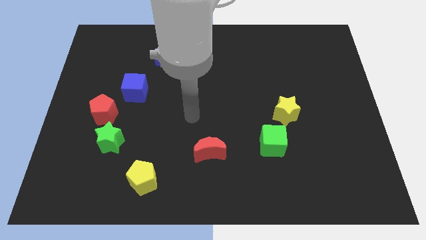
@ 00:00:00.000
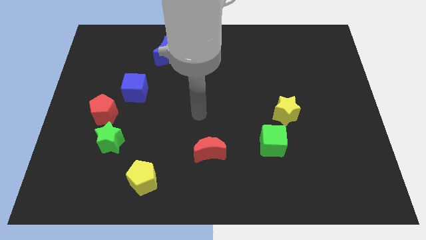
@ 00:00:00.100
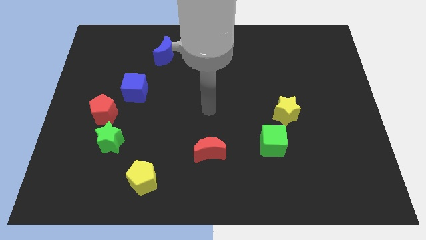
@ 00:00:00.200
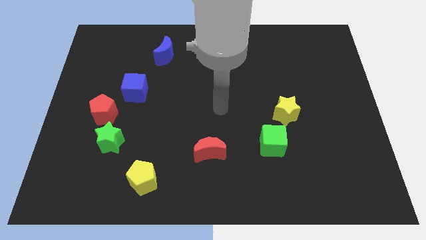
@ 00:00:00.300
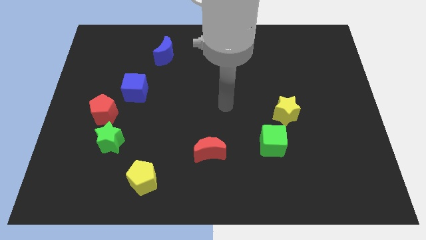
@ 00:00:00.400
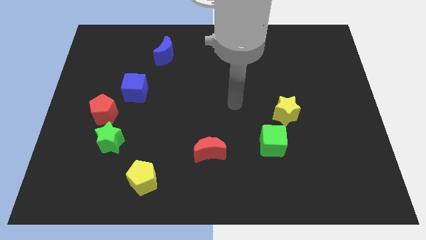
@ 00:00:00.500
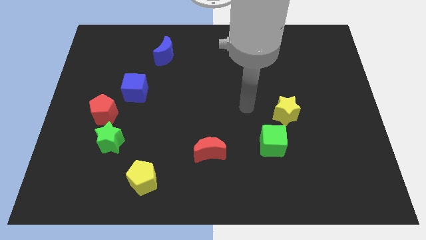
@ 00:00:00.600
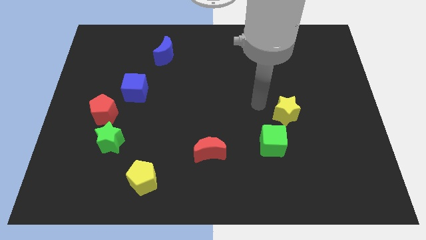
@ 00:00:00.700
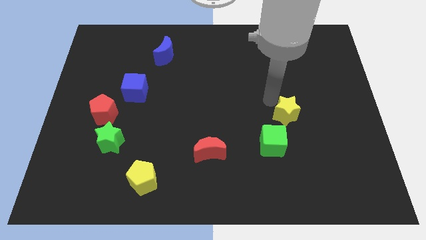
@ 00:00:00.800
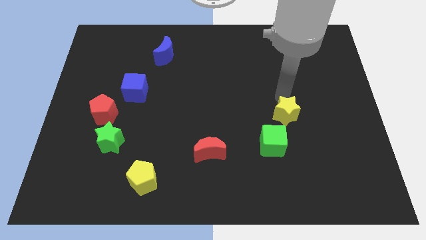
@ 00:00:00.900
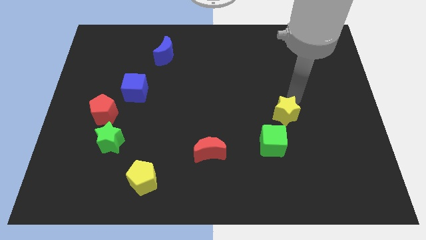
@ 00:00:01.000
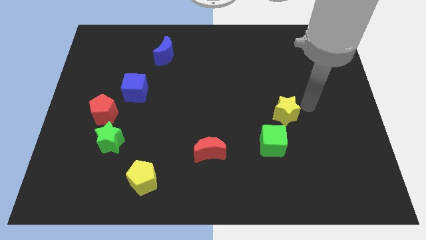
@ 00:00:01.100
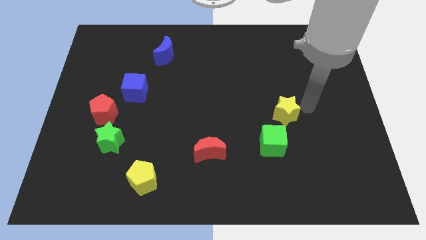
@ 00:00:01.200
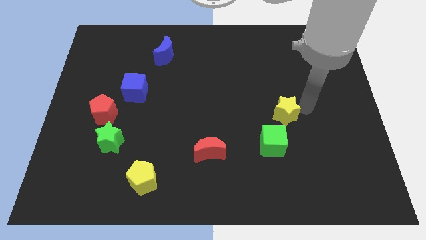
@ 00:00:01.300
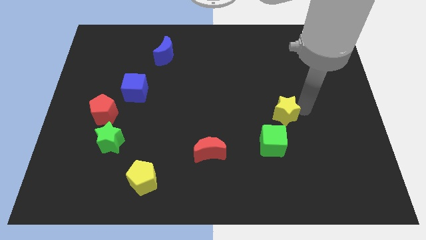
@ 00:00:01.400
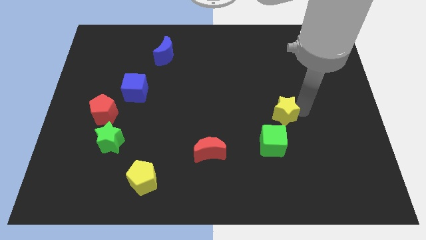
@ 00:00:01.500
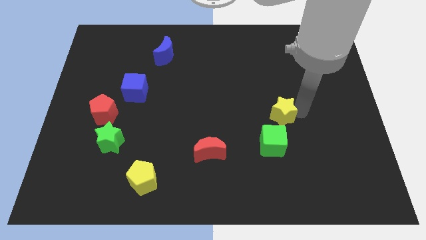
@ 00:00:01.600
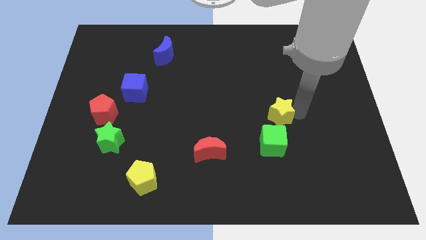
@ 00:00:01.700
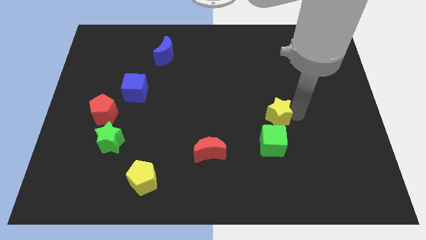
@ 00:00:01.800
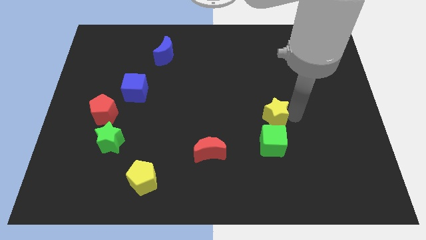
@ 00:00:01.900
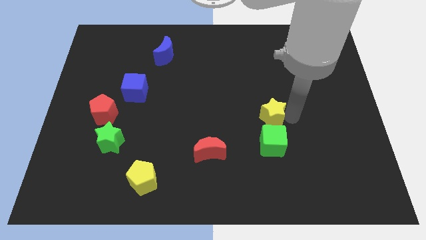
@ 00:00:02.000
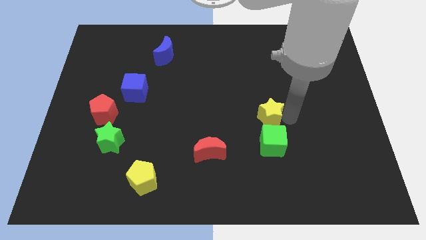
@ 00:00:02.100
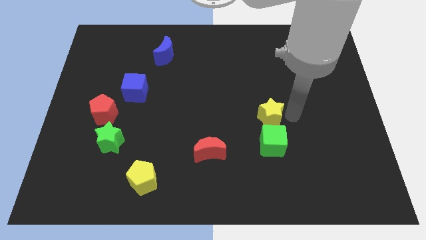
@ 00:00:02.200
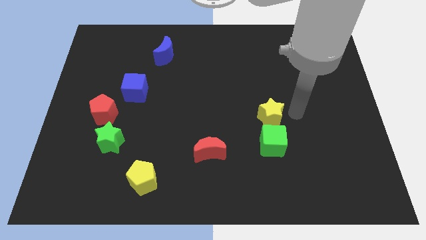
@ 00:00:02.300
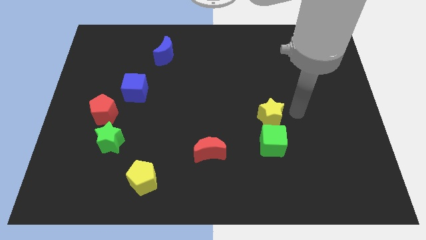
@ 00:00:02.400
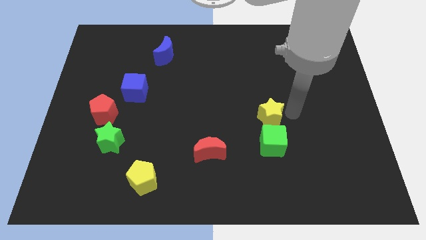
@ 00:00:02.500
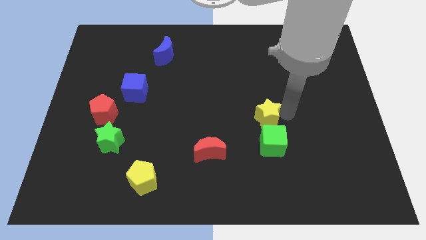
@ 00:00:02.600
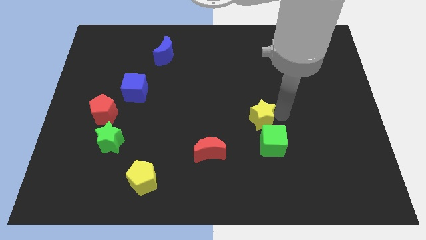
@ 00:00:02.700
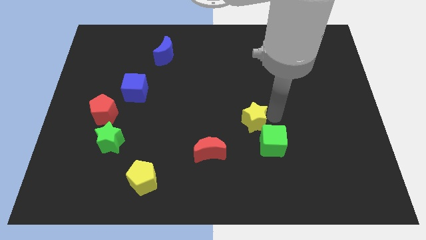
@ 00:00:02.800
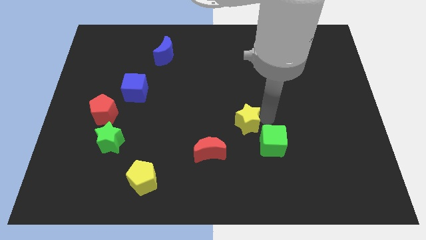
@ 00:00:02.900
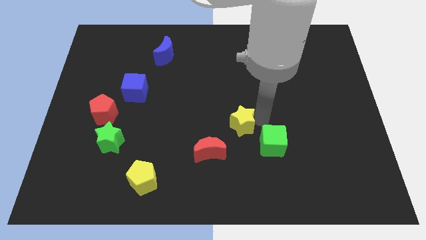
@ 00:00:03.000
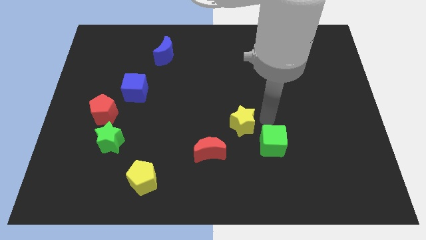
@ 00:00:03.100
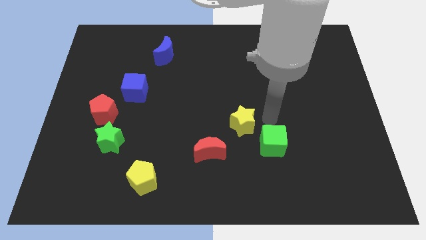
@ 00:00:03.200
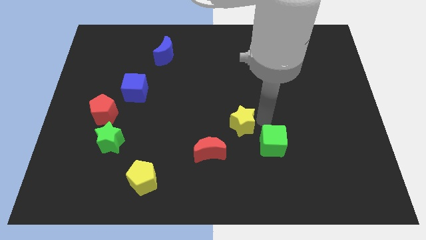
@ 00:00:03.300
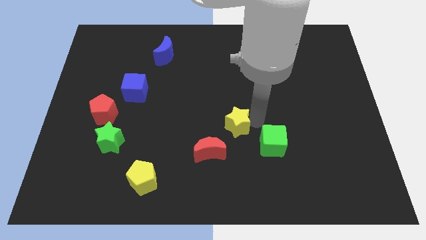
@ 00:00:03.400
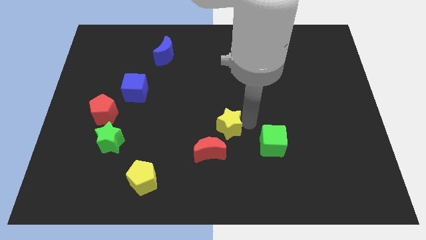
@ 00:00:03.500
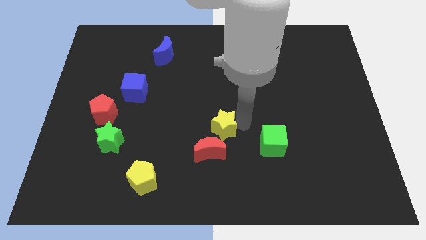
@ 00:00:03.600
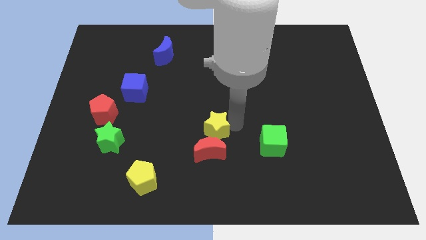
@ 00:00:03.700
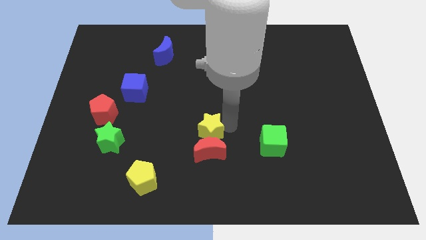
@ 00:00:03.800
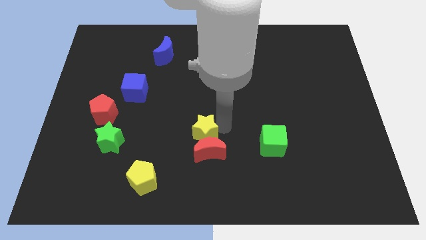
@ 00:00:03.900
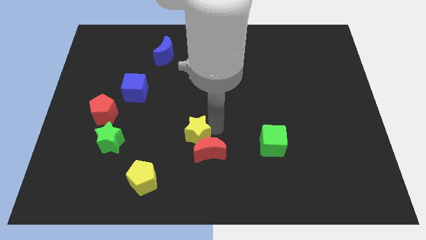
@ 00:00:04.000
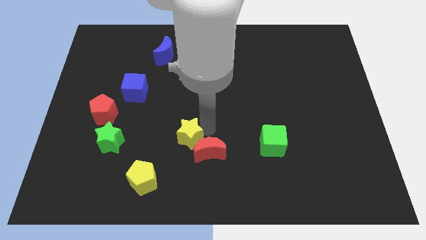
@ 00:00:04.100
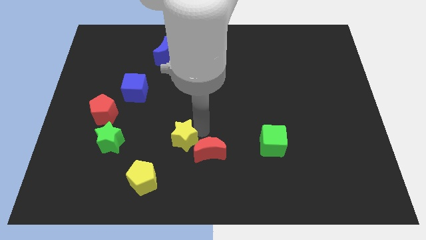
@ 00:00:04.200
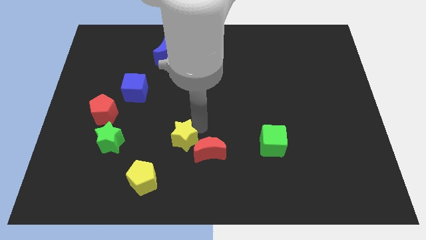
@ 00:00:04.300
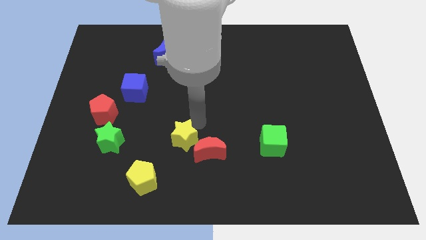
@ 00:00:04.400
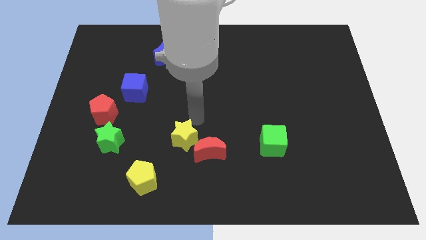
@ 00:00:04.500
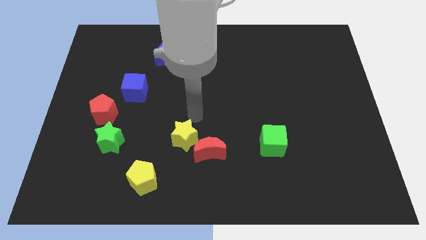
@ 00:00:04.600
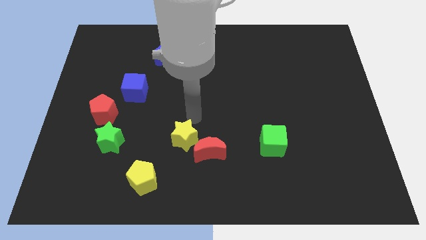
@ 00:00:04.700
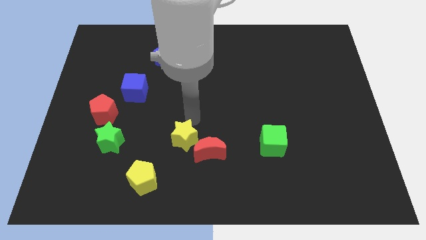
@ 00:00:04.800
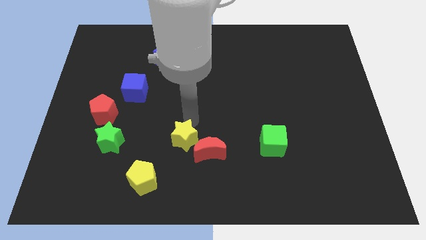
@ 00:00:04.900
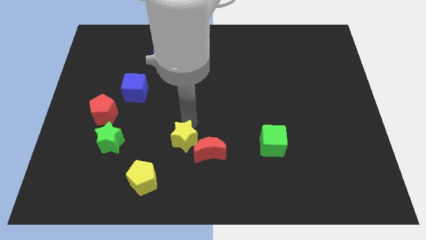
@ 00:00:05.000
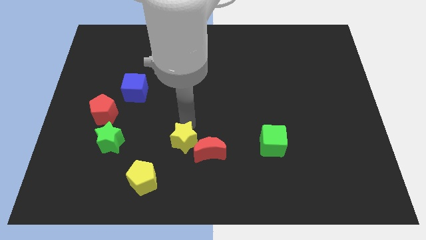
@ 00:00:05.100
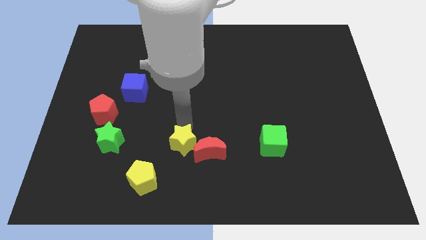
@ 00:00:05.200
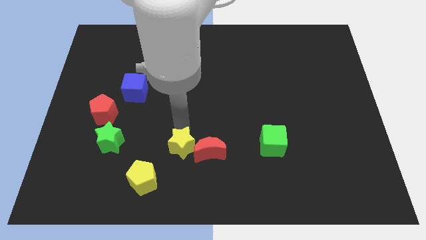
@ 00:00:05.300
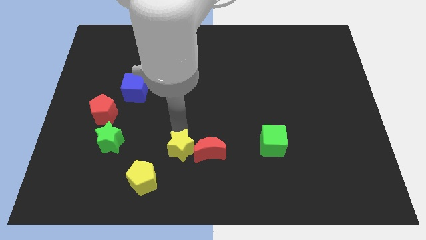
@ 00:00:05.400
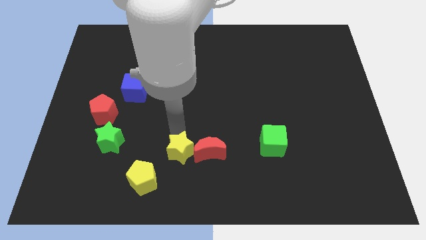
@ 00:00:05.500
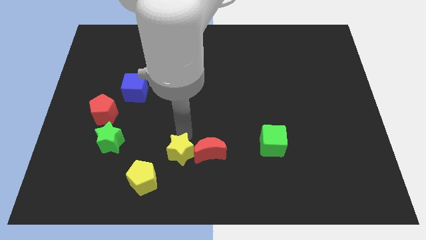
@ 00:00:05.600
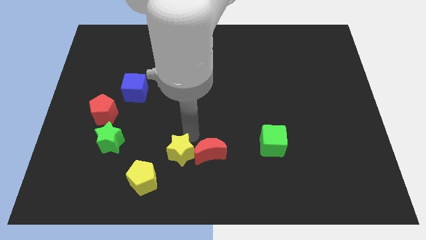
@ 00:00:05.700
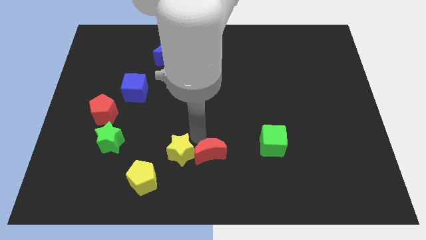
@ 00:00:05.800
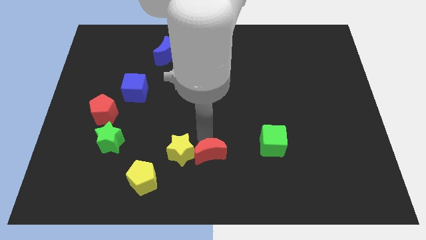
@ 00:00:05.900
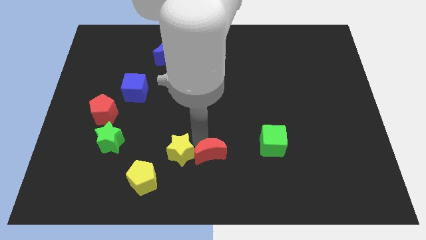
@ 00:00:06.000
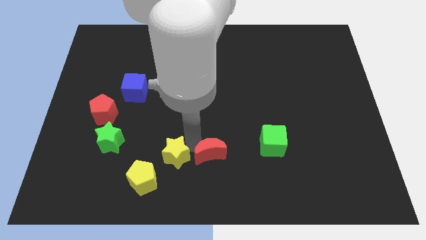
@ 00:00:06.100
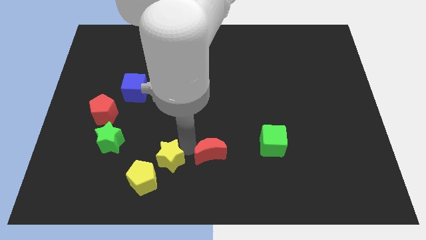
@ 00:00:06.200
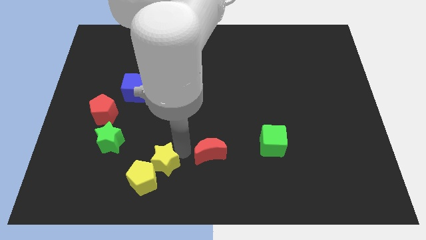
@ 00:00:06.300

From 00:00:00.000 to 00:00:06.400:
push the yellow star towards the yellow pentagon

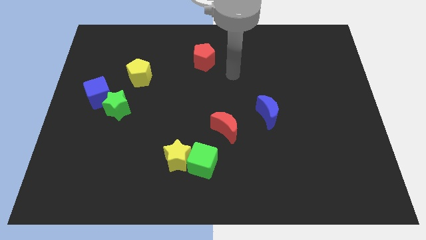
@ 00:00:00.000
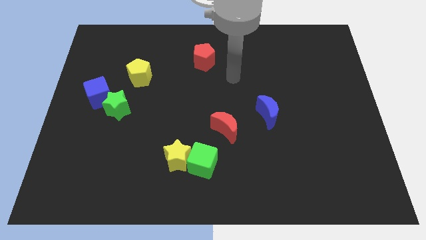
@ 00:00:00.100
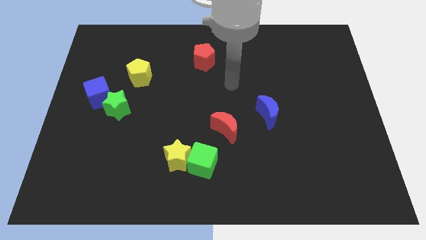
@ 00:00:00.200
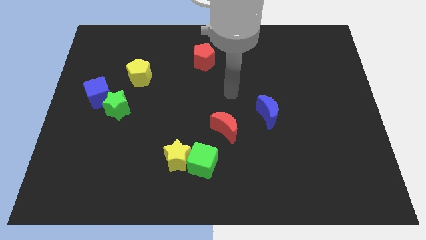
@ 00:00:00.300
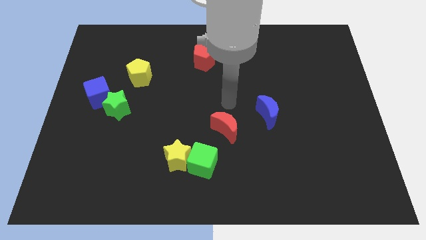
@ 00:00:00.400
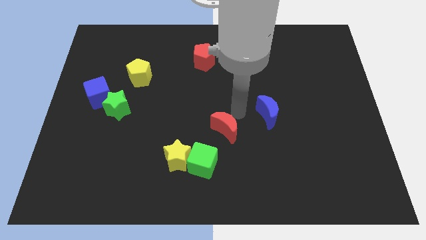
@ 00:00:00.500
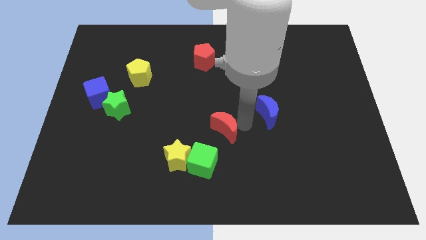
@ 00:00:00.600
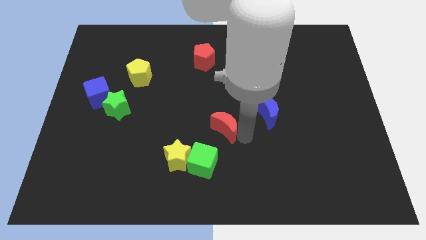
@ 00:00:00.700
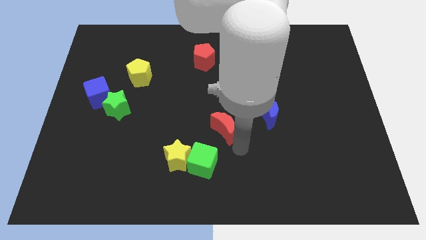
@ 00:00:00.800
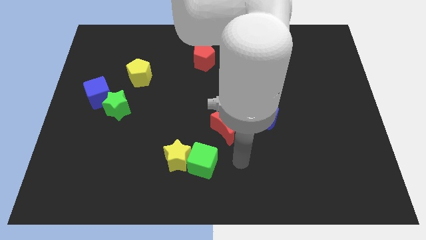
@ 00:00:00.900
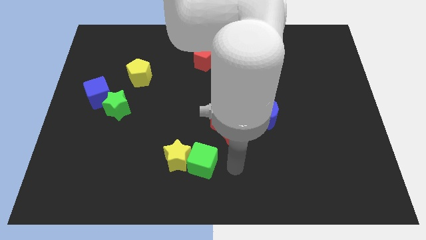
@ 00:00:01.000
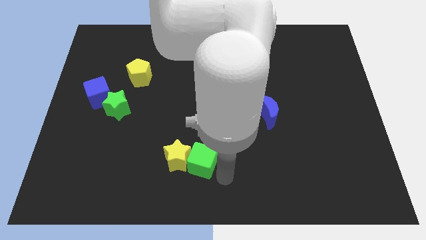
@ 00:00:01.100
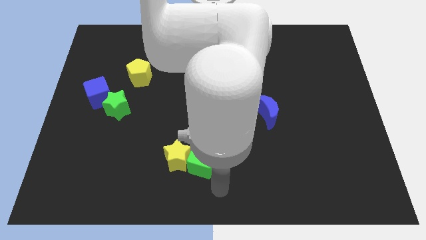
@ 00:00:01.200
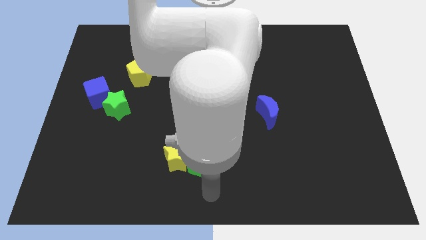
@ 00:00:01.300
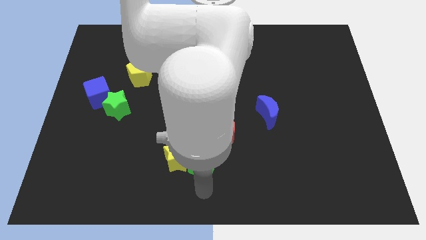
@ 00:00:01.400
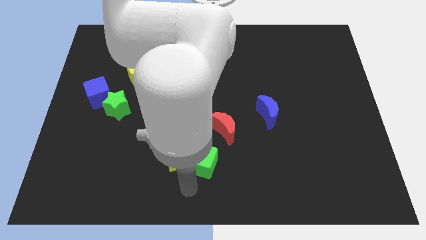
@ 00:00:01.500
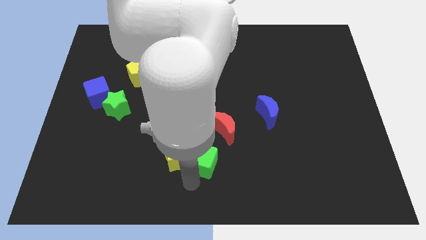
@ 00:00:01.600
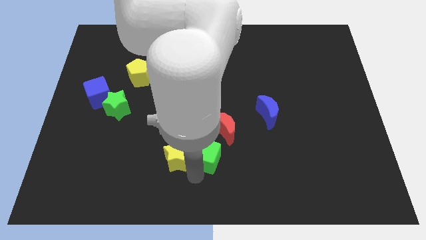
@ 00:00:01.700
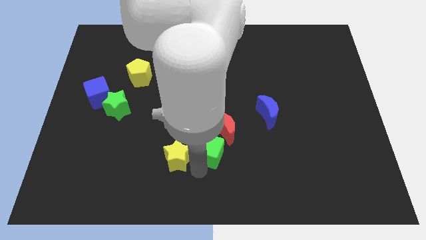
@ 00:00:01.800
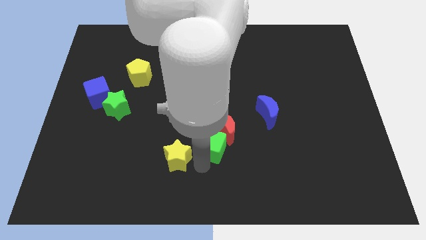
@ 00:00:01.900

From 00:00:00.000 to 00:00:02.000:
move the green cube close to the red moon
